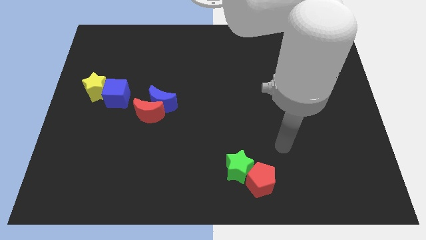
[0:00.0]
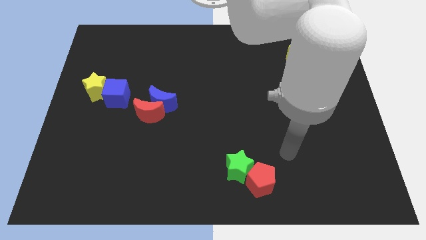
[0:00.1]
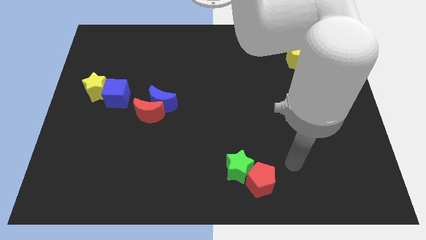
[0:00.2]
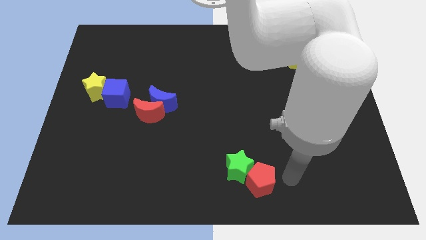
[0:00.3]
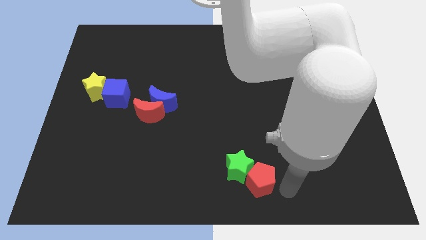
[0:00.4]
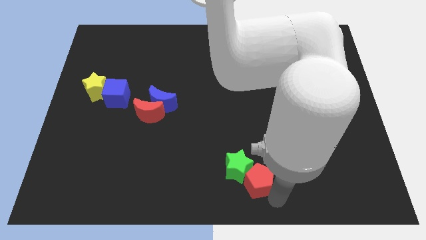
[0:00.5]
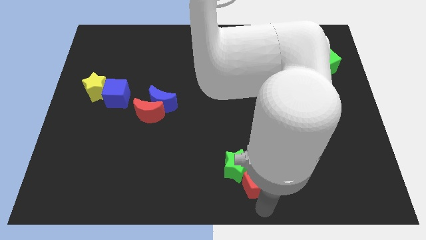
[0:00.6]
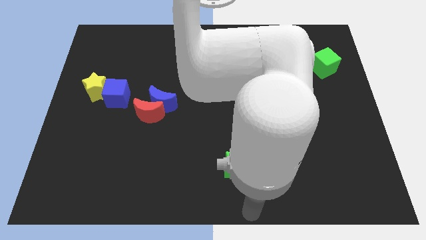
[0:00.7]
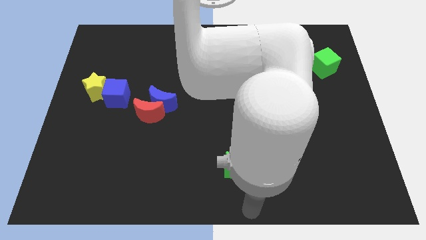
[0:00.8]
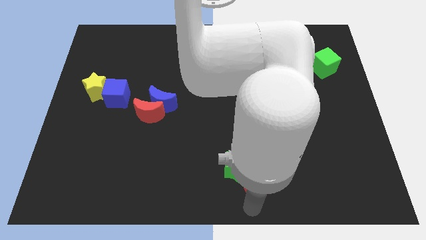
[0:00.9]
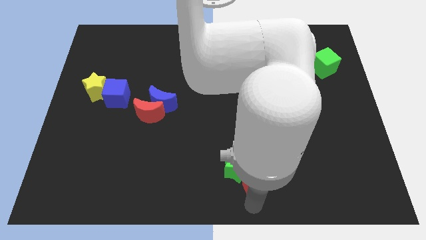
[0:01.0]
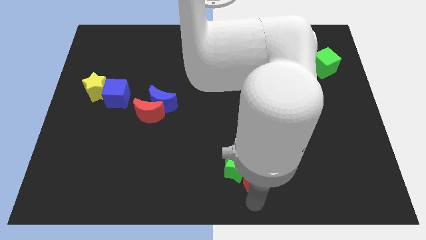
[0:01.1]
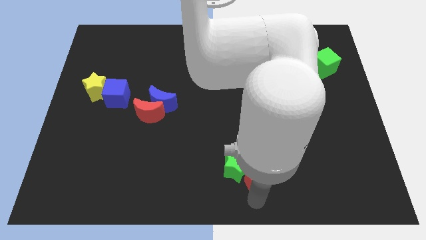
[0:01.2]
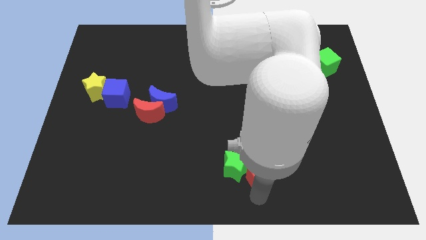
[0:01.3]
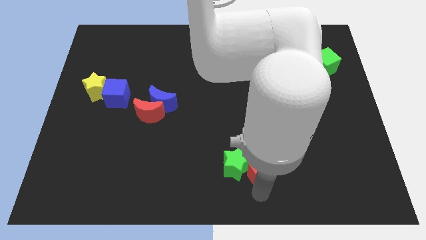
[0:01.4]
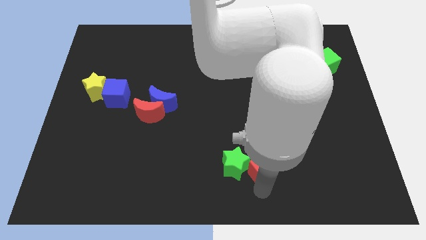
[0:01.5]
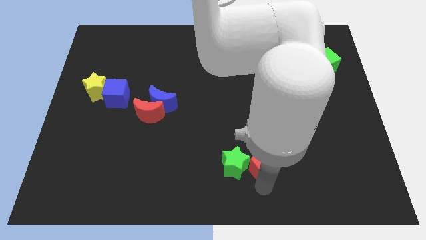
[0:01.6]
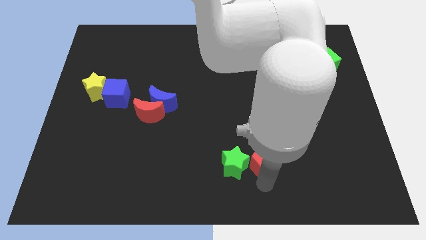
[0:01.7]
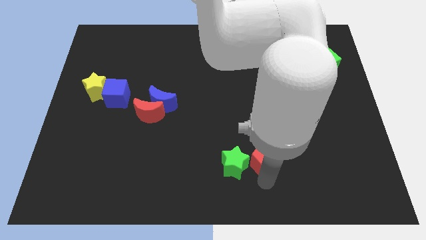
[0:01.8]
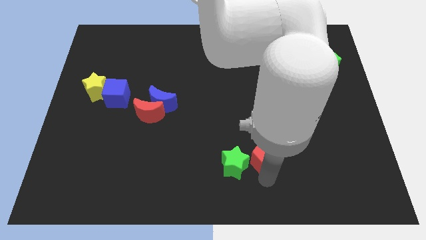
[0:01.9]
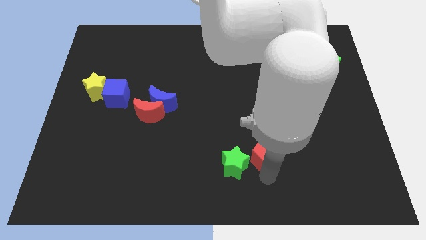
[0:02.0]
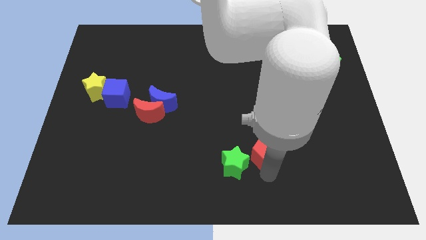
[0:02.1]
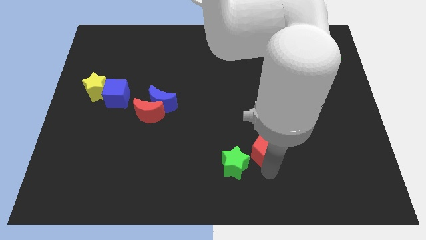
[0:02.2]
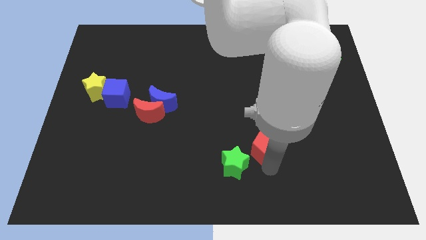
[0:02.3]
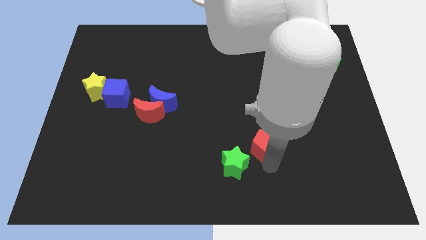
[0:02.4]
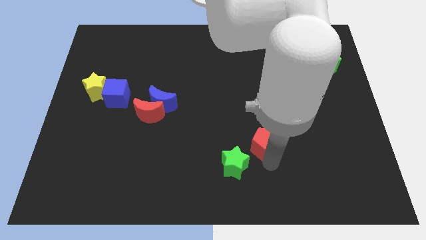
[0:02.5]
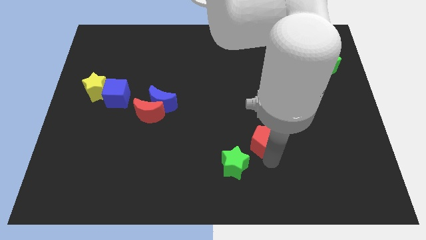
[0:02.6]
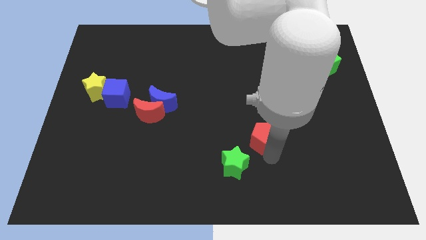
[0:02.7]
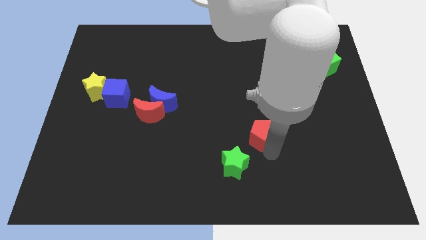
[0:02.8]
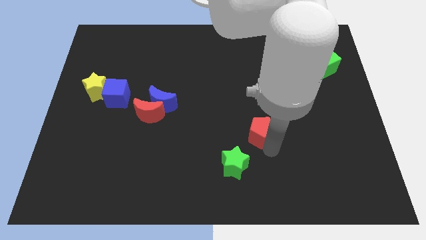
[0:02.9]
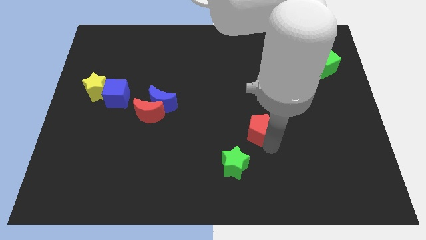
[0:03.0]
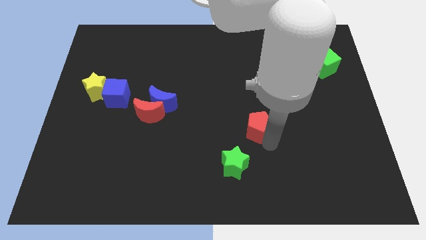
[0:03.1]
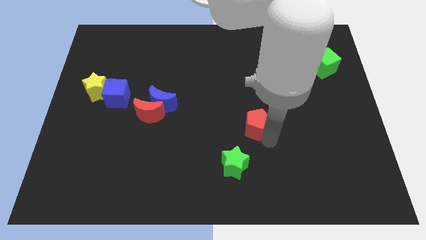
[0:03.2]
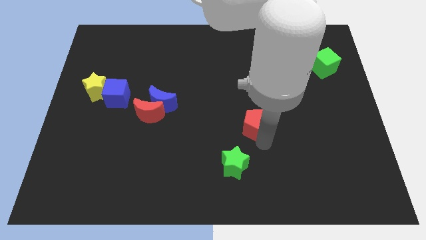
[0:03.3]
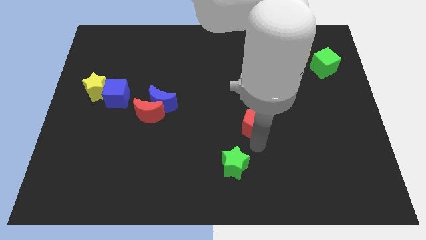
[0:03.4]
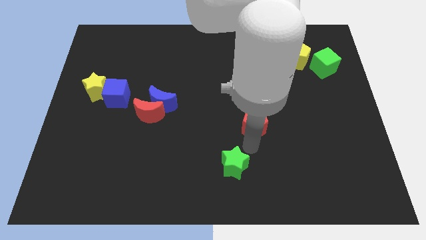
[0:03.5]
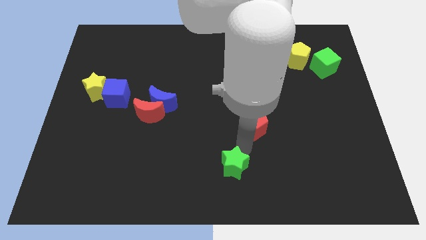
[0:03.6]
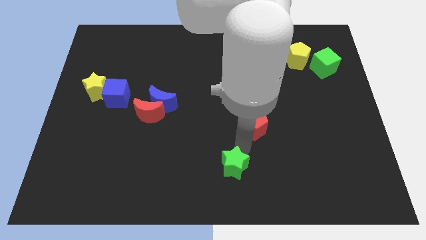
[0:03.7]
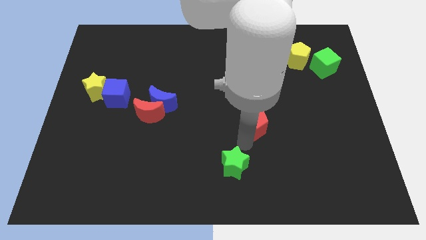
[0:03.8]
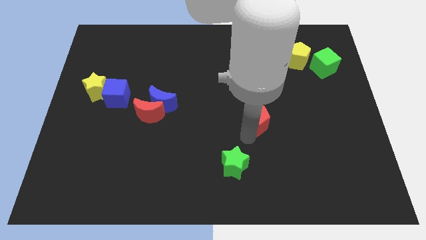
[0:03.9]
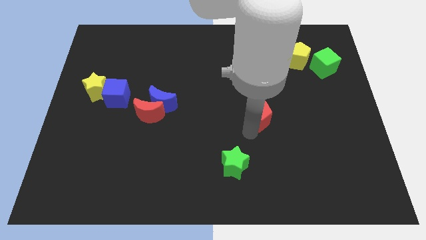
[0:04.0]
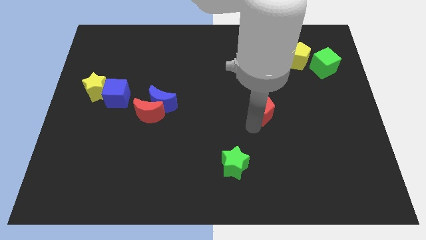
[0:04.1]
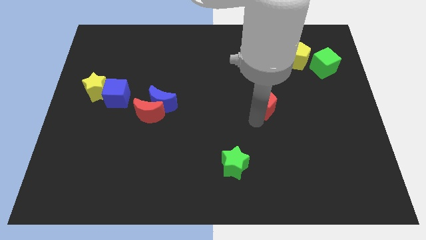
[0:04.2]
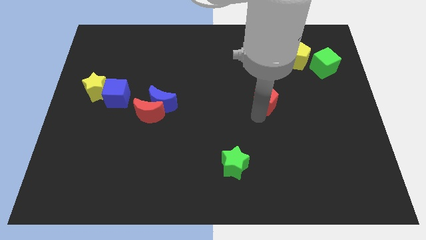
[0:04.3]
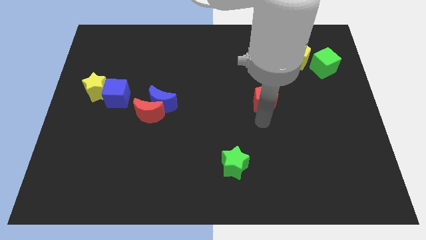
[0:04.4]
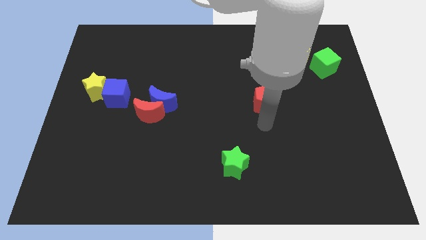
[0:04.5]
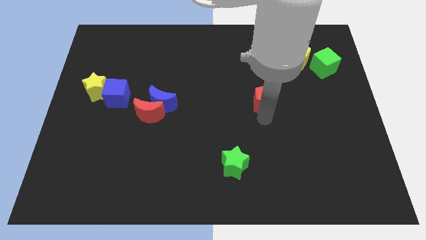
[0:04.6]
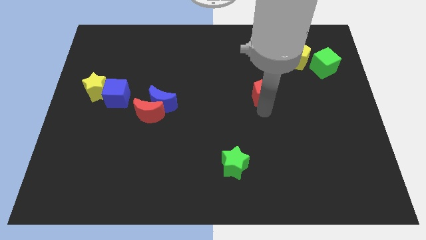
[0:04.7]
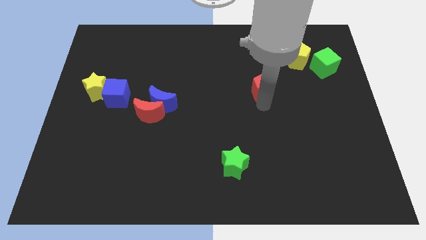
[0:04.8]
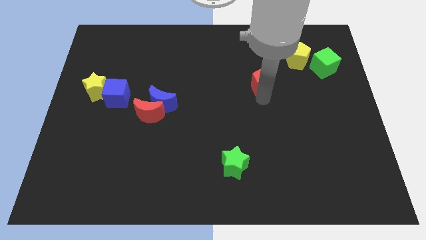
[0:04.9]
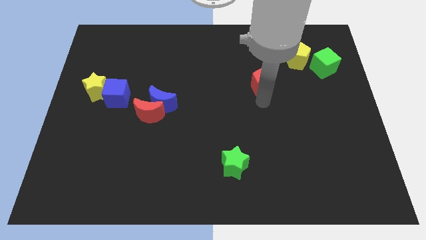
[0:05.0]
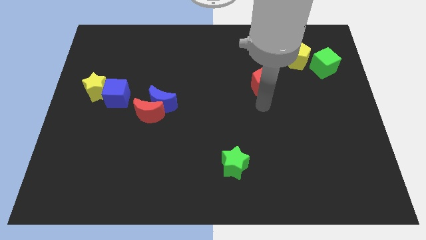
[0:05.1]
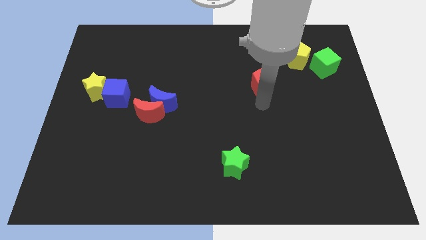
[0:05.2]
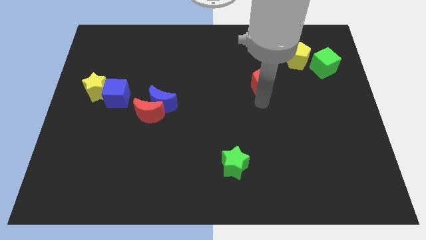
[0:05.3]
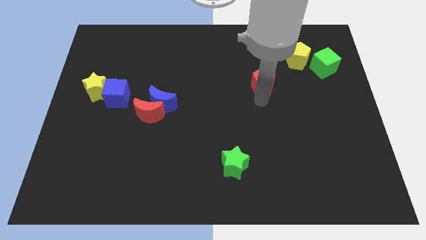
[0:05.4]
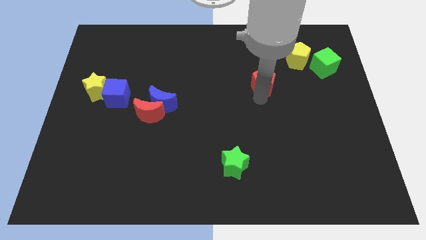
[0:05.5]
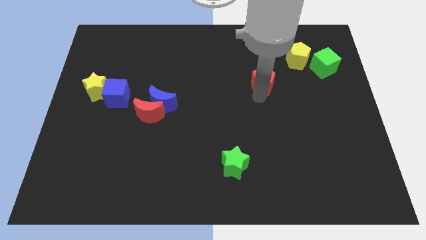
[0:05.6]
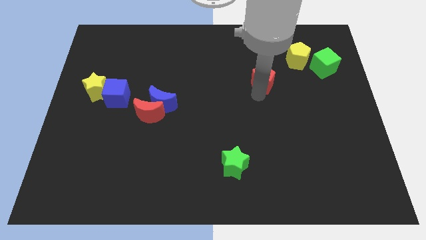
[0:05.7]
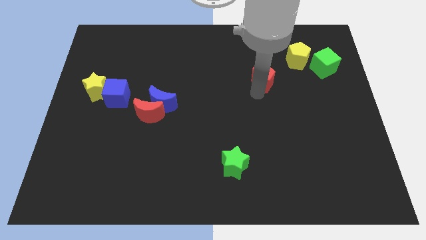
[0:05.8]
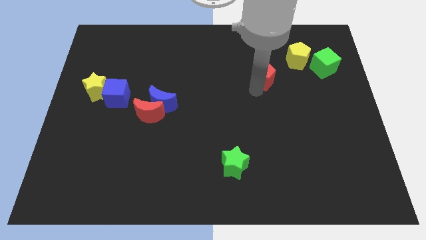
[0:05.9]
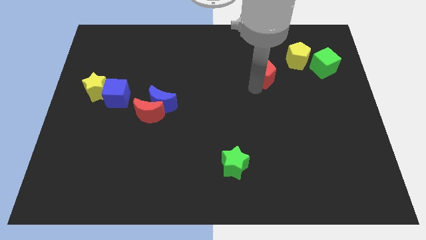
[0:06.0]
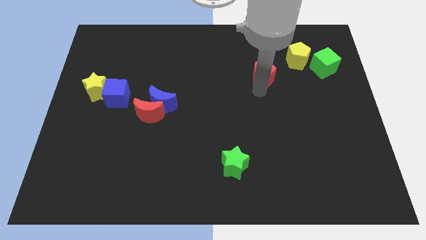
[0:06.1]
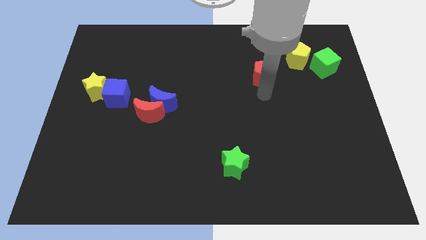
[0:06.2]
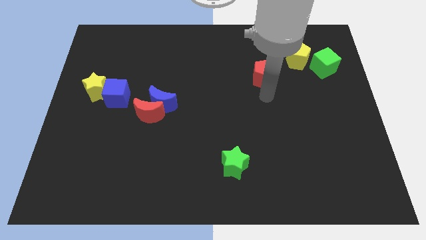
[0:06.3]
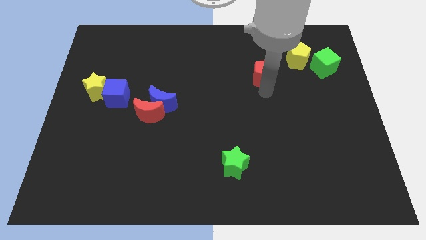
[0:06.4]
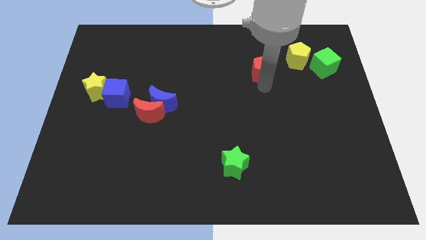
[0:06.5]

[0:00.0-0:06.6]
move the red pentagon to the left of the yellow pentagon
